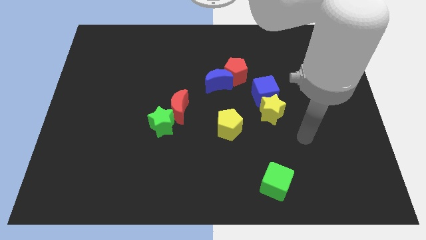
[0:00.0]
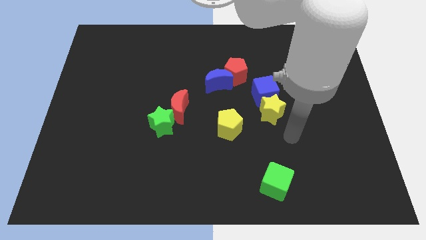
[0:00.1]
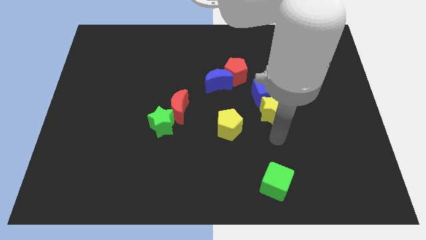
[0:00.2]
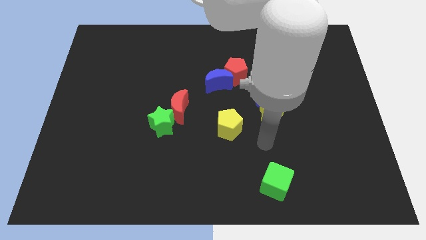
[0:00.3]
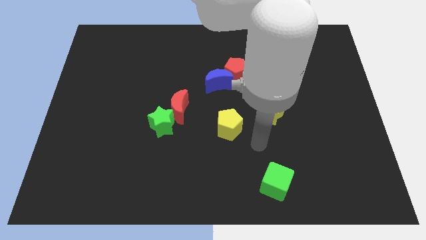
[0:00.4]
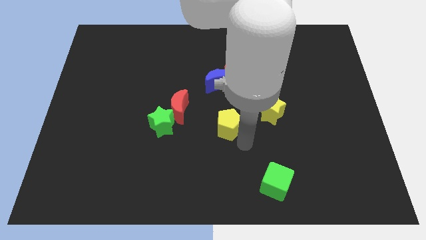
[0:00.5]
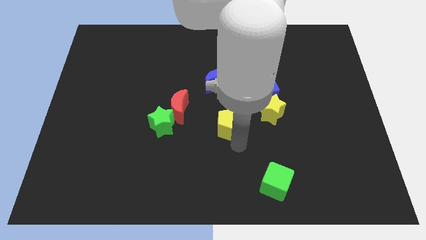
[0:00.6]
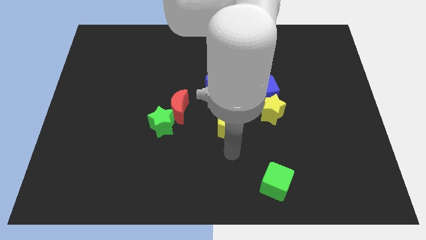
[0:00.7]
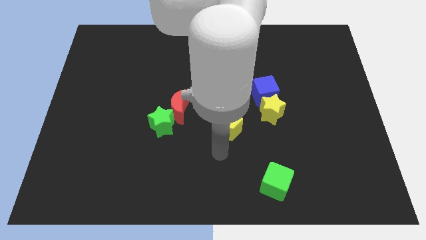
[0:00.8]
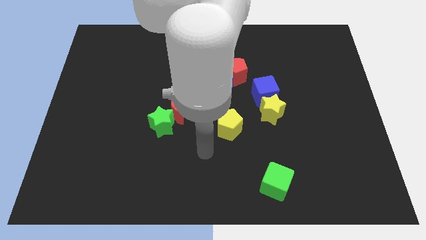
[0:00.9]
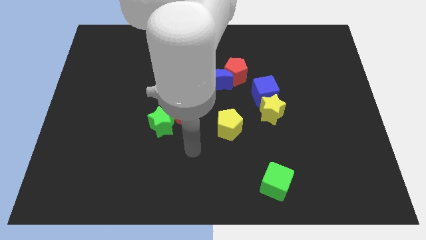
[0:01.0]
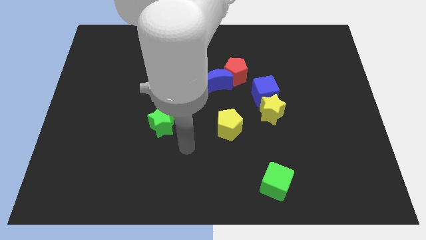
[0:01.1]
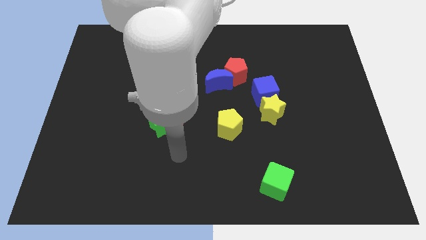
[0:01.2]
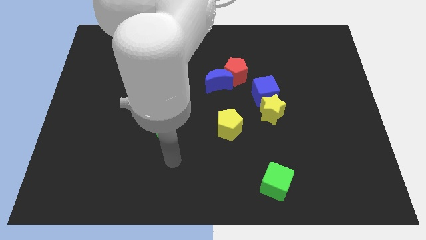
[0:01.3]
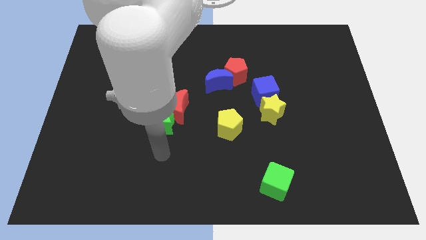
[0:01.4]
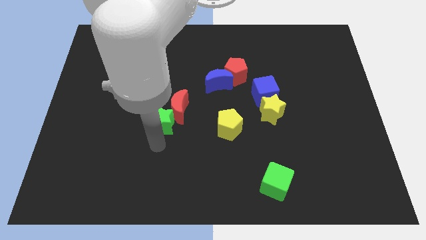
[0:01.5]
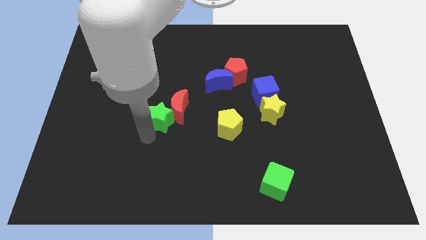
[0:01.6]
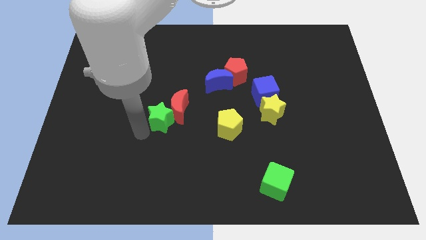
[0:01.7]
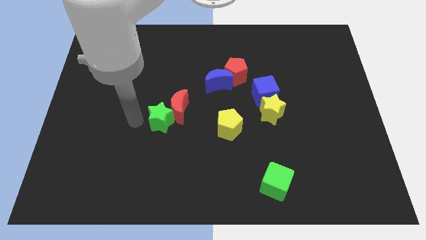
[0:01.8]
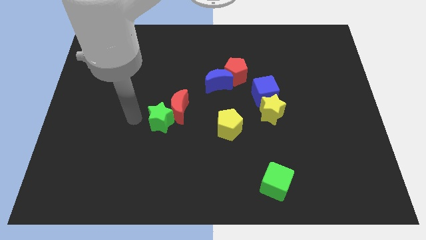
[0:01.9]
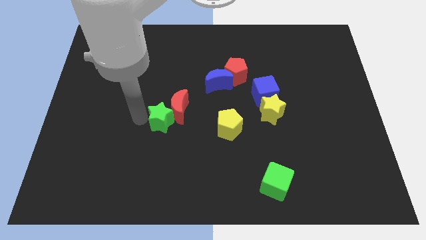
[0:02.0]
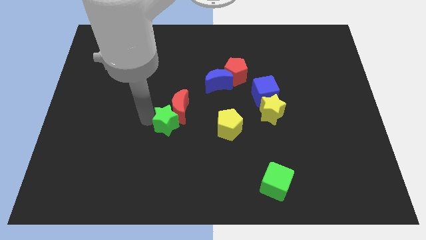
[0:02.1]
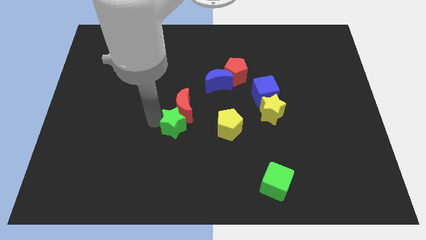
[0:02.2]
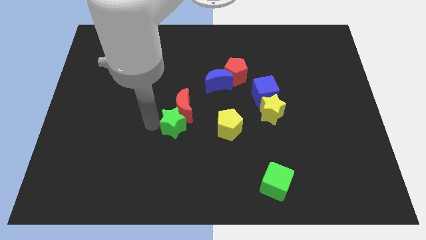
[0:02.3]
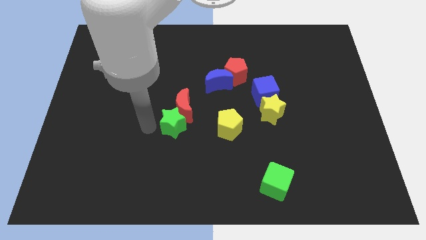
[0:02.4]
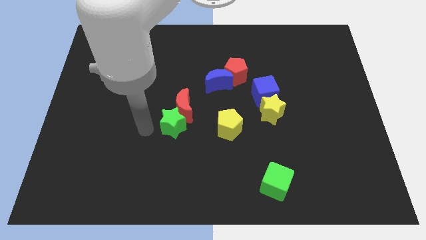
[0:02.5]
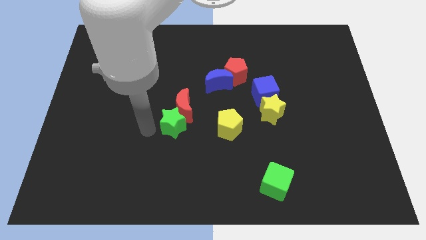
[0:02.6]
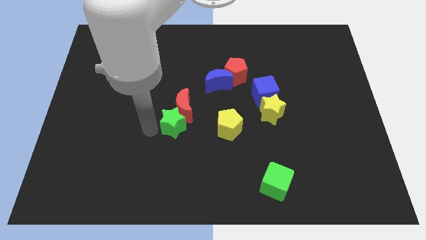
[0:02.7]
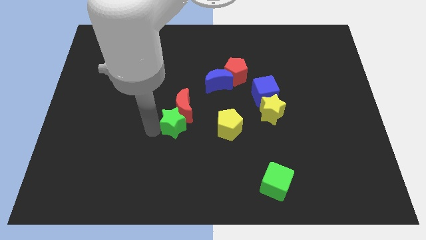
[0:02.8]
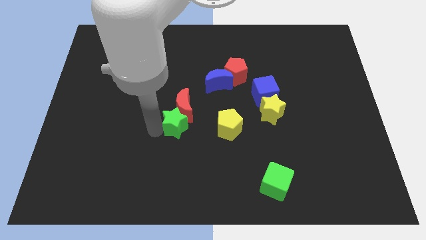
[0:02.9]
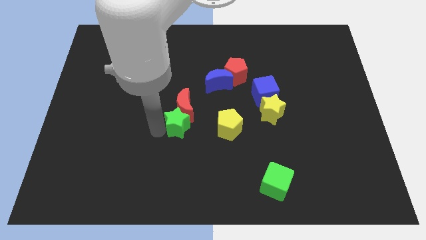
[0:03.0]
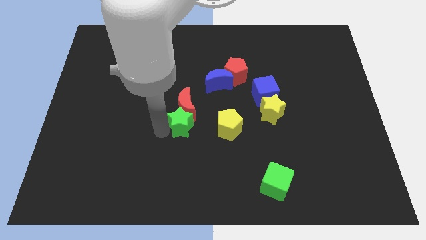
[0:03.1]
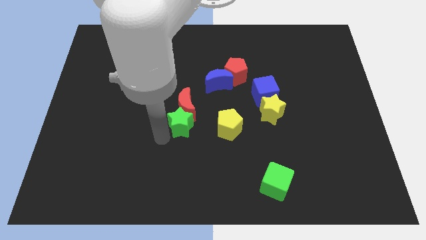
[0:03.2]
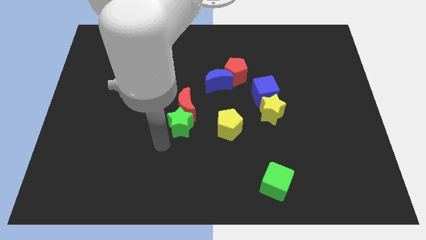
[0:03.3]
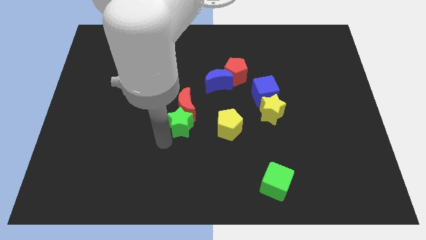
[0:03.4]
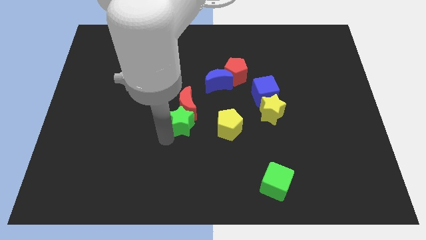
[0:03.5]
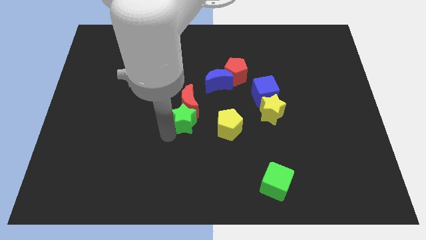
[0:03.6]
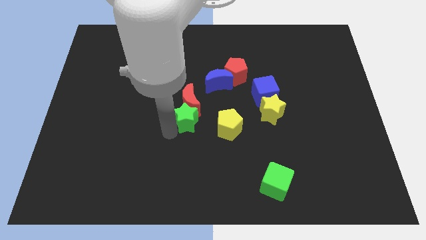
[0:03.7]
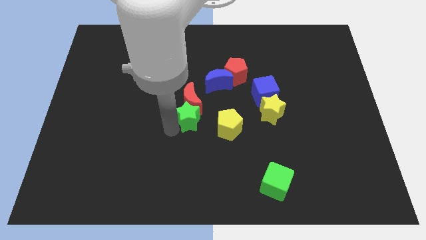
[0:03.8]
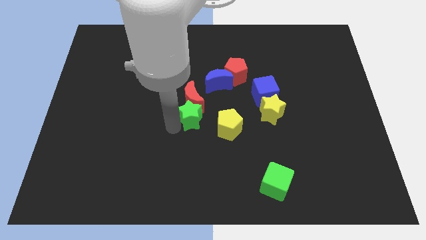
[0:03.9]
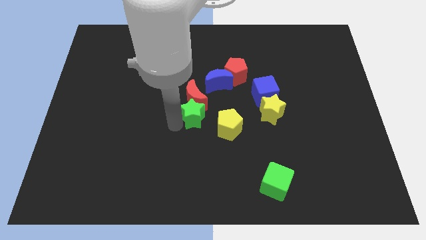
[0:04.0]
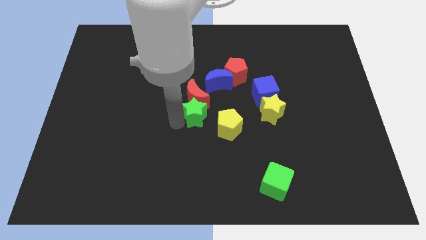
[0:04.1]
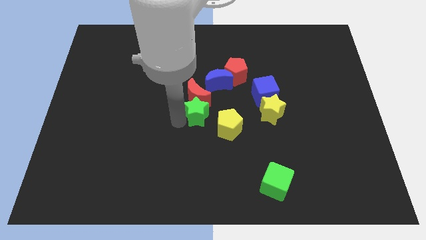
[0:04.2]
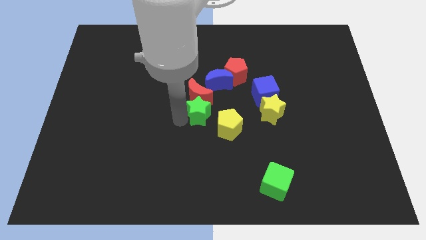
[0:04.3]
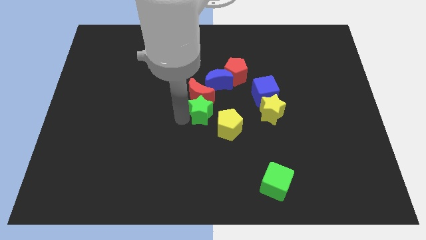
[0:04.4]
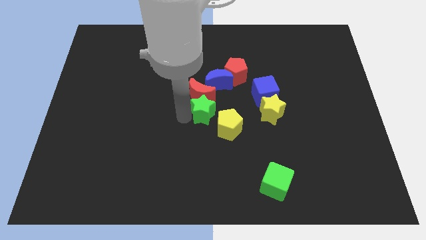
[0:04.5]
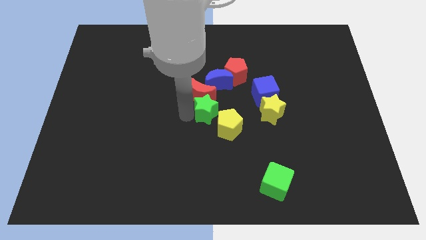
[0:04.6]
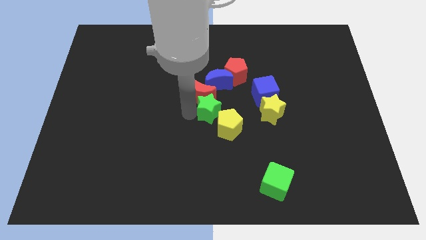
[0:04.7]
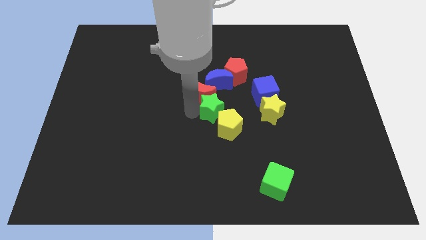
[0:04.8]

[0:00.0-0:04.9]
push the green star to the left of the blue cube

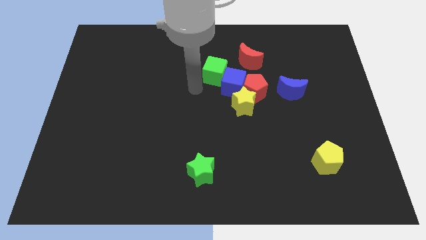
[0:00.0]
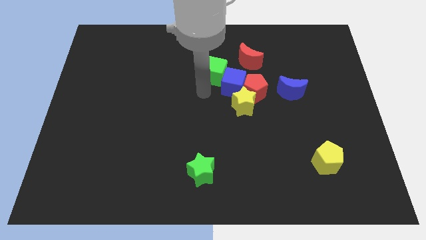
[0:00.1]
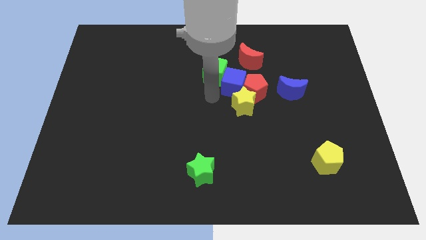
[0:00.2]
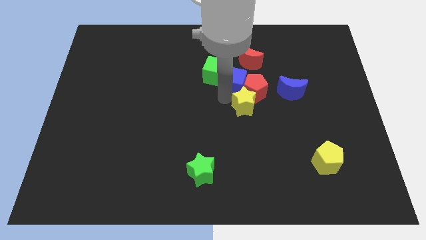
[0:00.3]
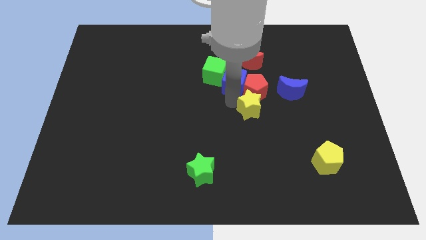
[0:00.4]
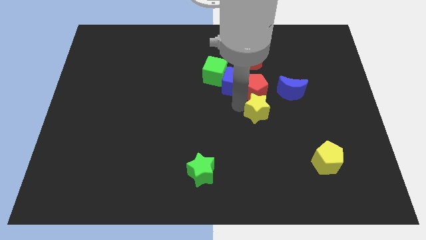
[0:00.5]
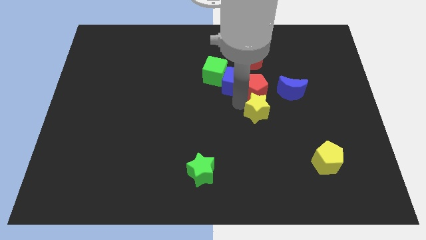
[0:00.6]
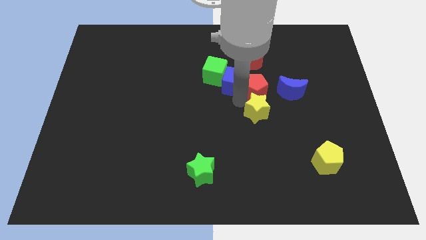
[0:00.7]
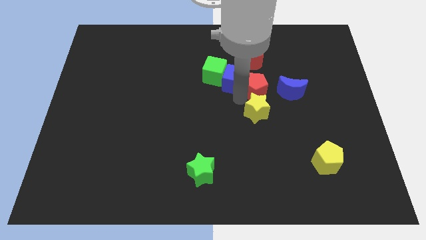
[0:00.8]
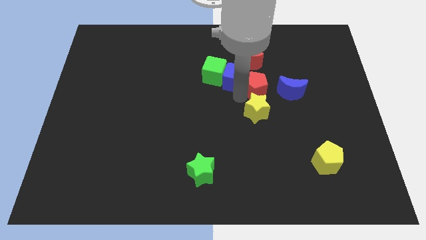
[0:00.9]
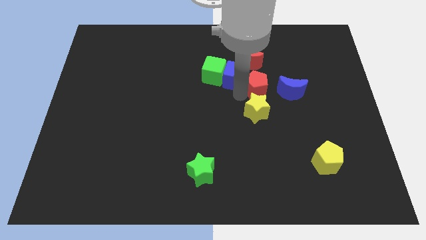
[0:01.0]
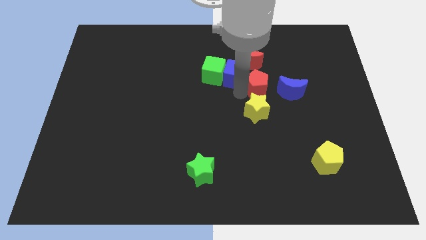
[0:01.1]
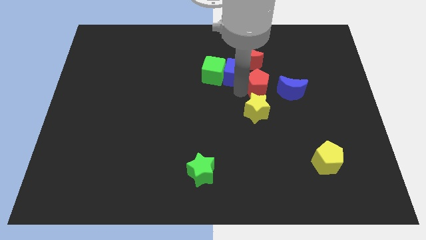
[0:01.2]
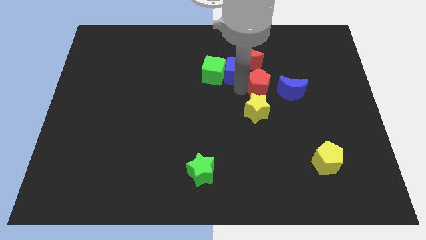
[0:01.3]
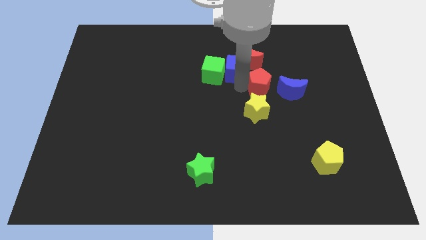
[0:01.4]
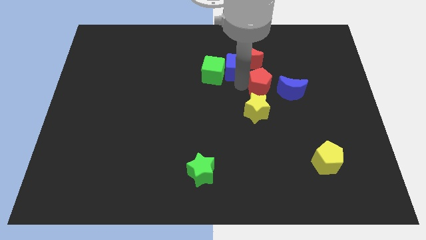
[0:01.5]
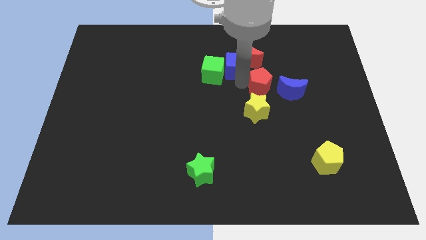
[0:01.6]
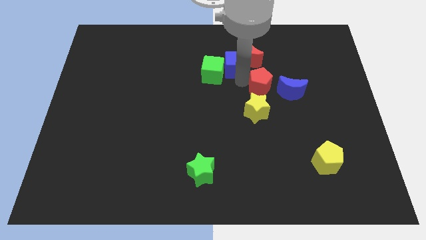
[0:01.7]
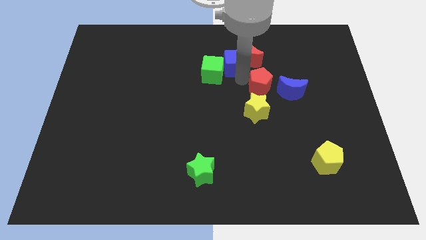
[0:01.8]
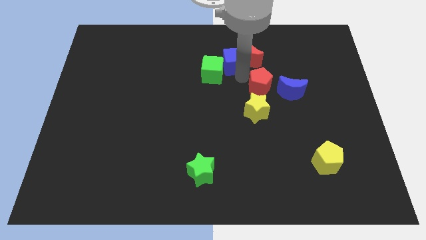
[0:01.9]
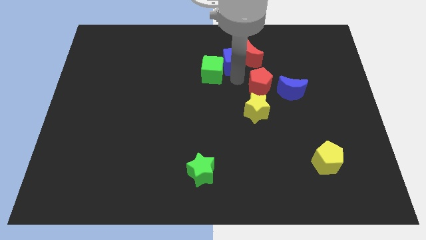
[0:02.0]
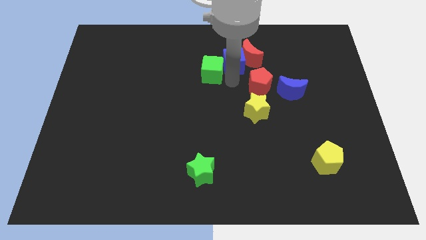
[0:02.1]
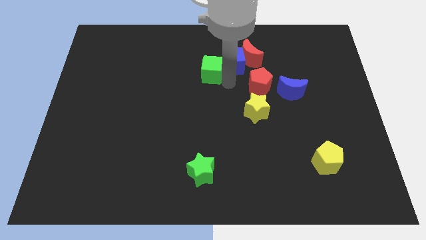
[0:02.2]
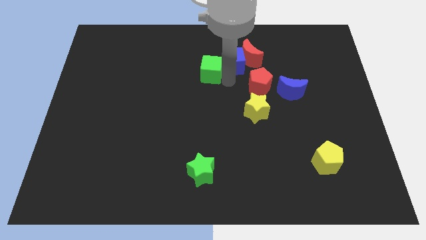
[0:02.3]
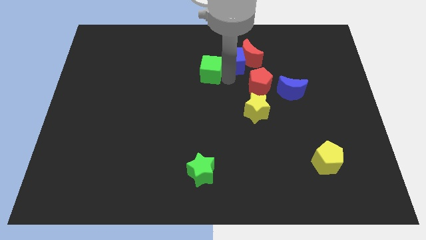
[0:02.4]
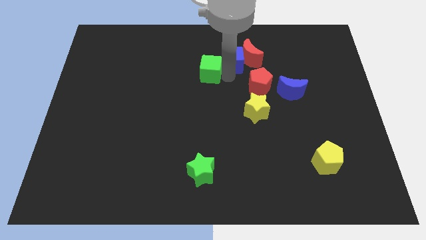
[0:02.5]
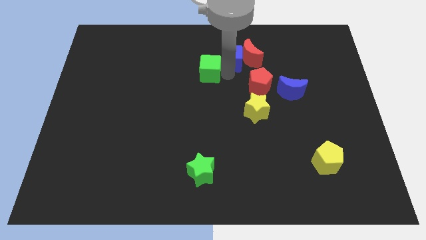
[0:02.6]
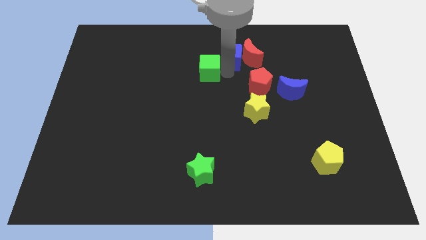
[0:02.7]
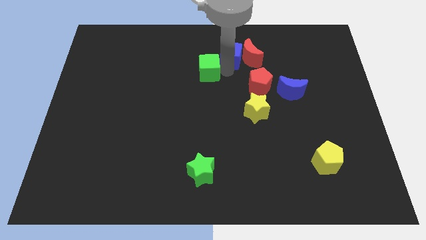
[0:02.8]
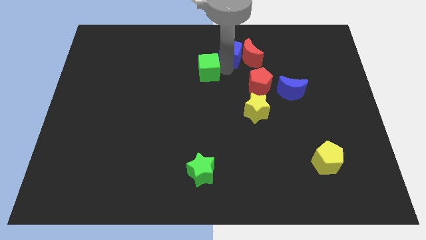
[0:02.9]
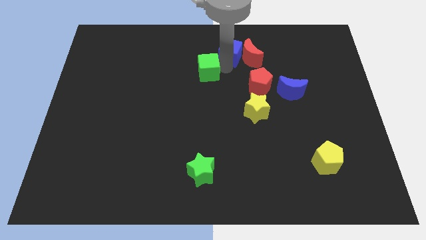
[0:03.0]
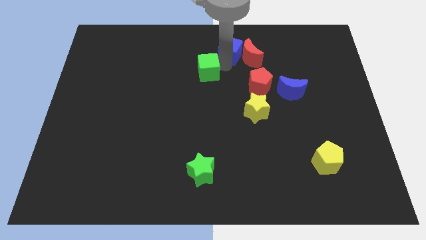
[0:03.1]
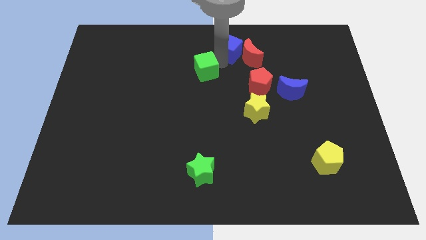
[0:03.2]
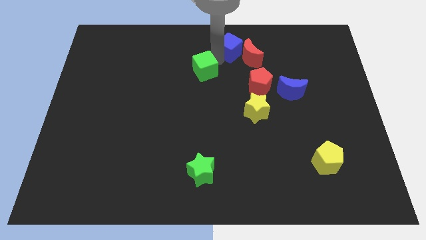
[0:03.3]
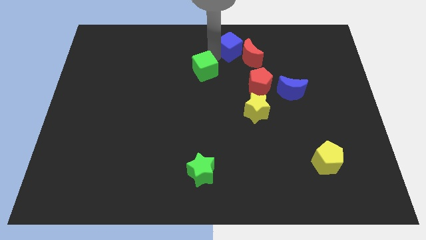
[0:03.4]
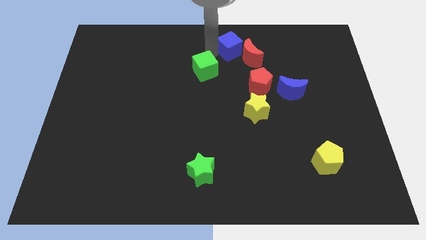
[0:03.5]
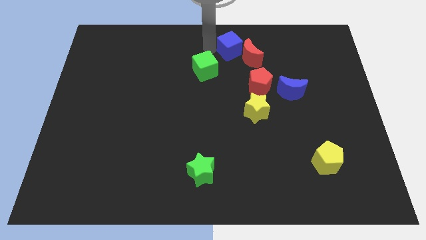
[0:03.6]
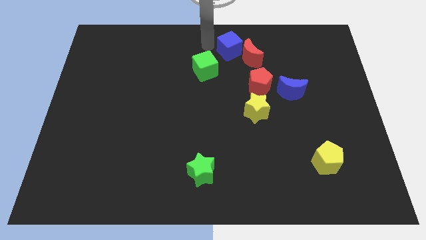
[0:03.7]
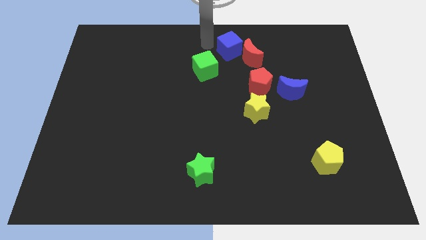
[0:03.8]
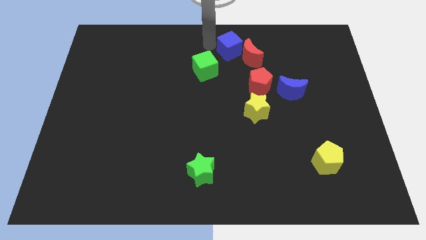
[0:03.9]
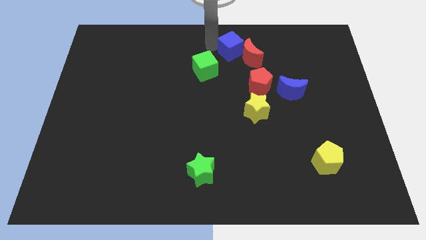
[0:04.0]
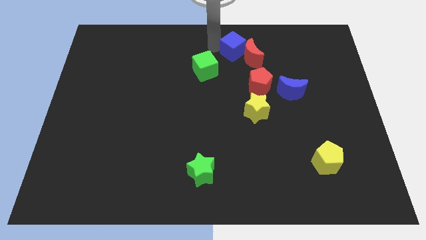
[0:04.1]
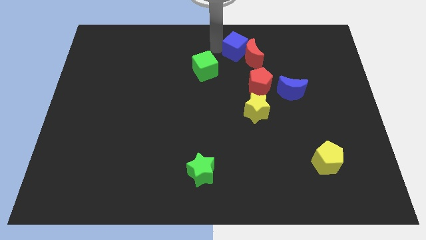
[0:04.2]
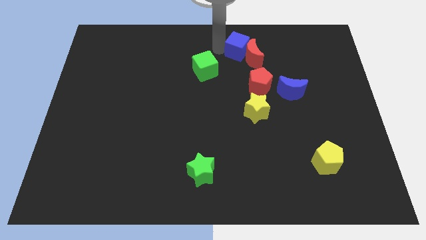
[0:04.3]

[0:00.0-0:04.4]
push the blue cube to the top of the red pentagon
